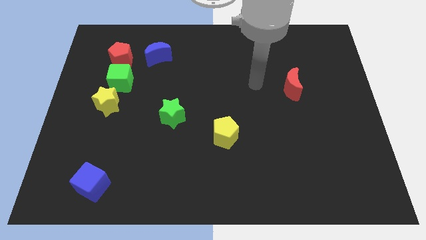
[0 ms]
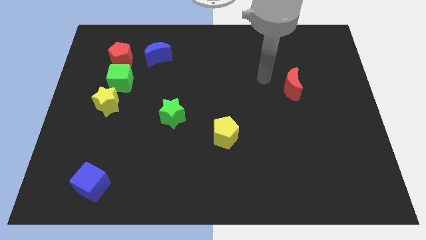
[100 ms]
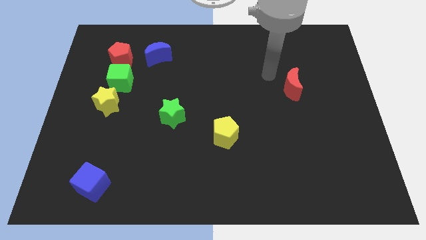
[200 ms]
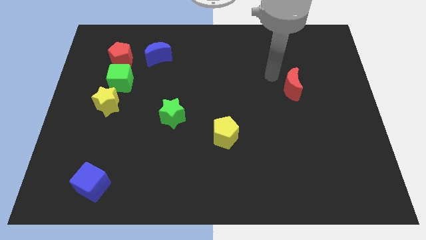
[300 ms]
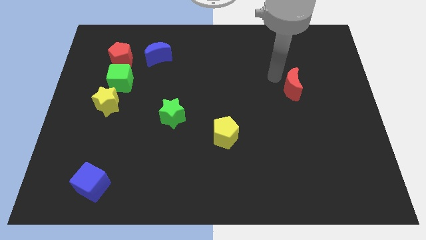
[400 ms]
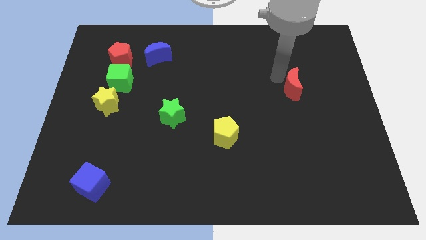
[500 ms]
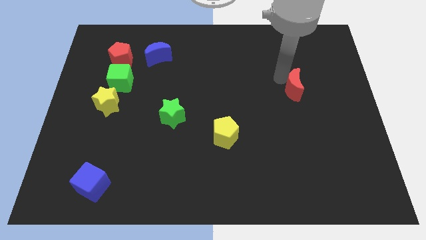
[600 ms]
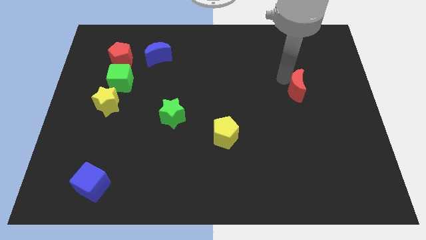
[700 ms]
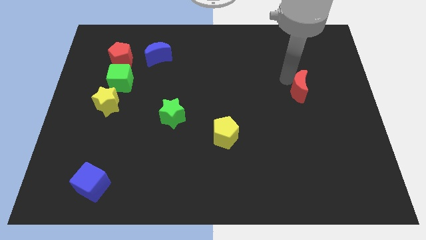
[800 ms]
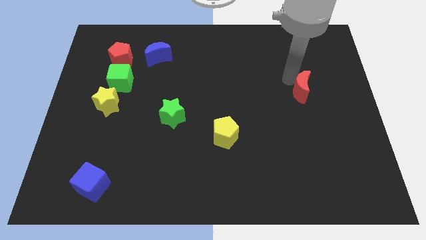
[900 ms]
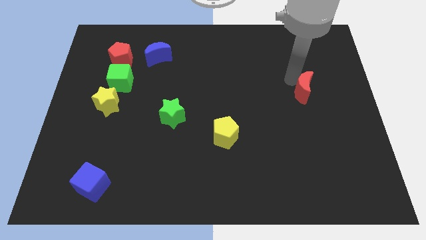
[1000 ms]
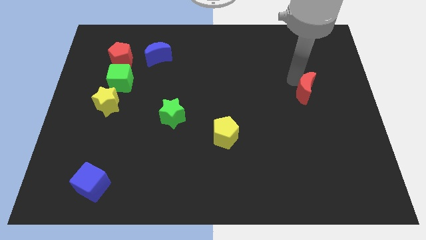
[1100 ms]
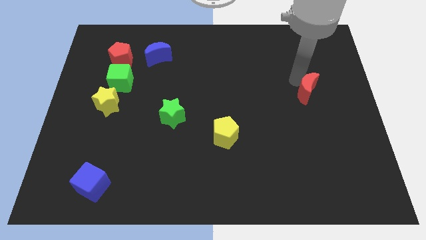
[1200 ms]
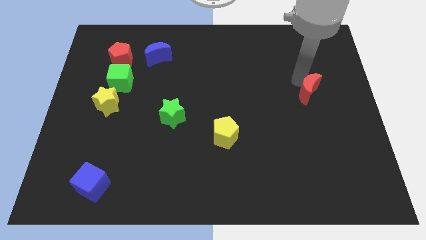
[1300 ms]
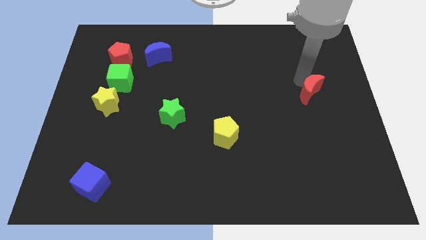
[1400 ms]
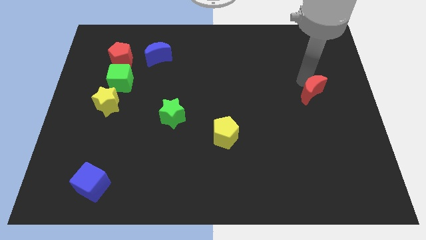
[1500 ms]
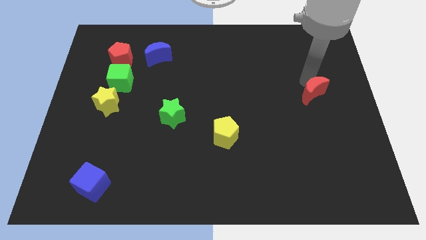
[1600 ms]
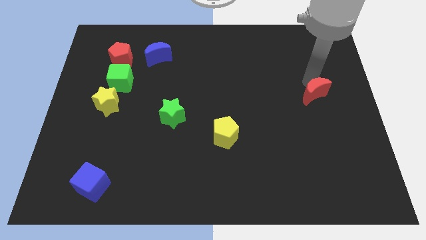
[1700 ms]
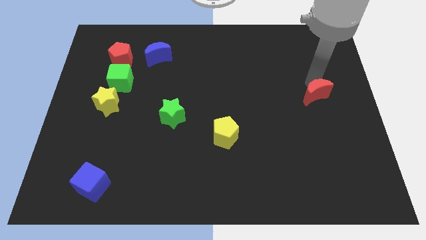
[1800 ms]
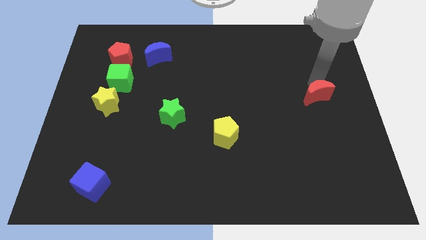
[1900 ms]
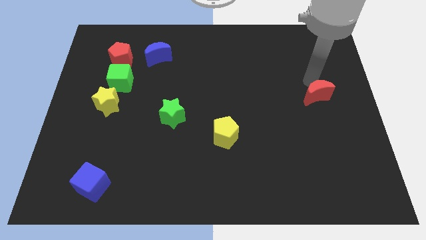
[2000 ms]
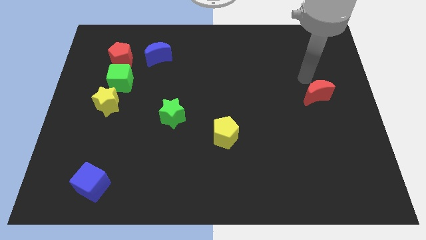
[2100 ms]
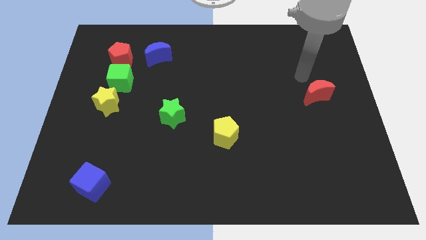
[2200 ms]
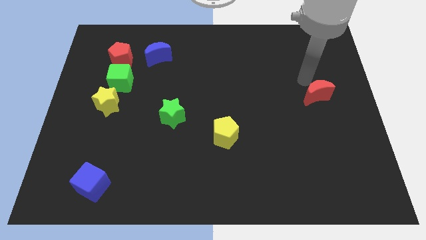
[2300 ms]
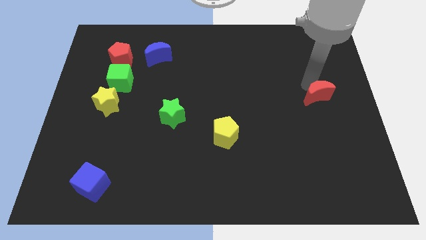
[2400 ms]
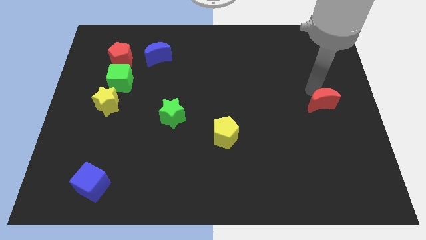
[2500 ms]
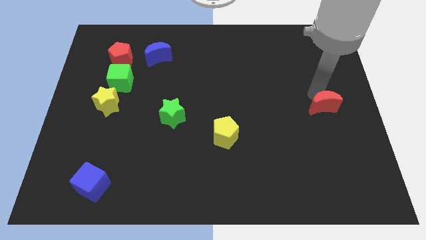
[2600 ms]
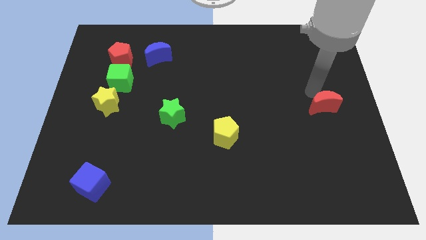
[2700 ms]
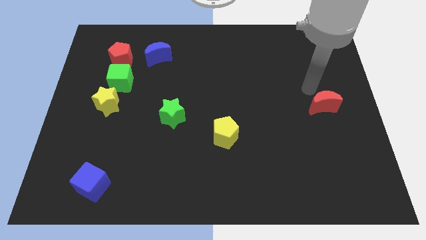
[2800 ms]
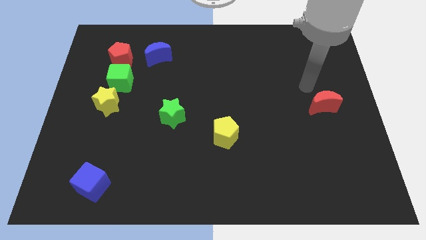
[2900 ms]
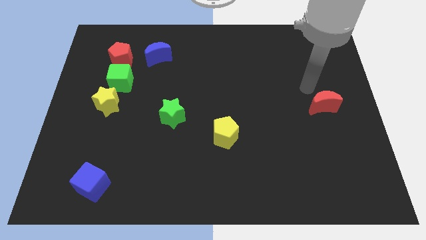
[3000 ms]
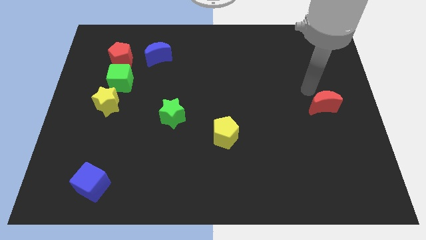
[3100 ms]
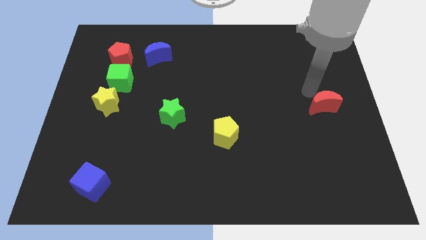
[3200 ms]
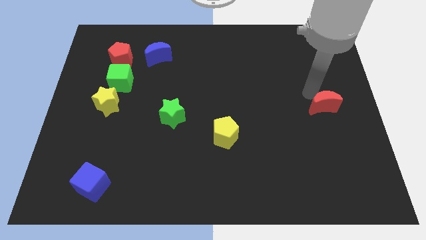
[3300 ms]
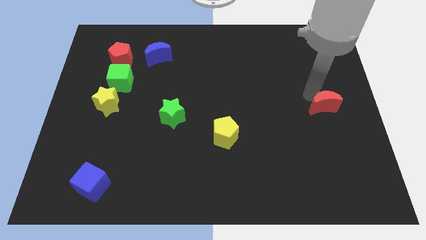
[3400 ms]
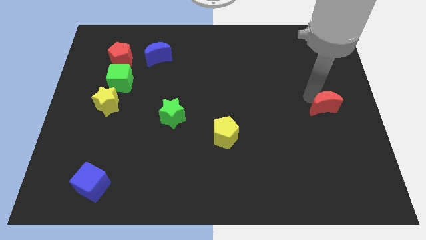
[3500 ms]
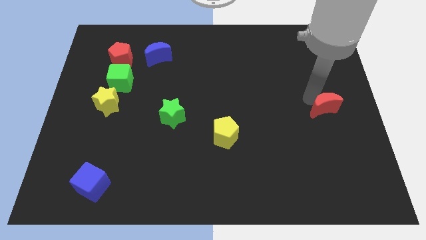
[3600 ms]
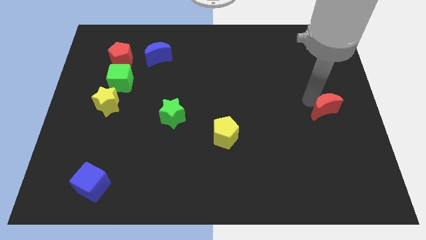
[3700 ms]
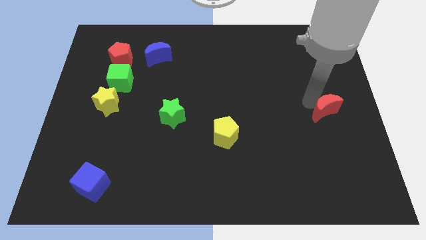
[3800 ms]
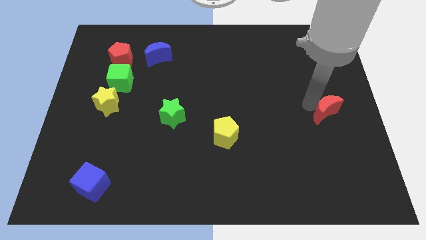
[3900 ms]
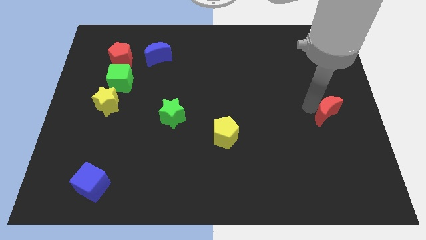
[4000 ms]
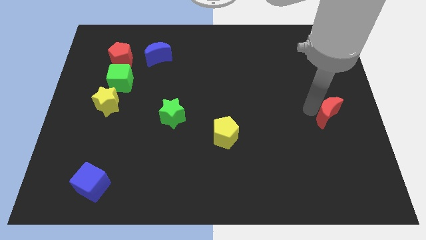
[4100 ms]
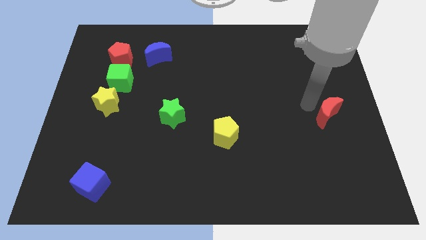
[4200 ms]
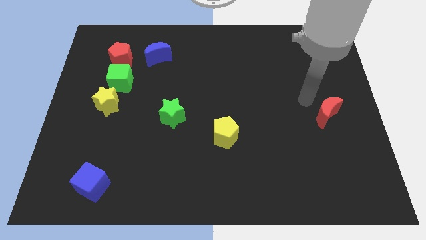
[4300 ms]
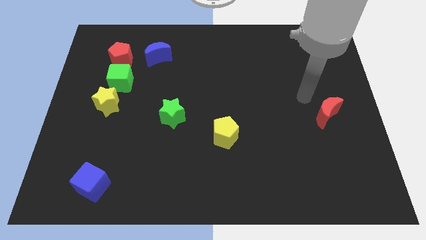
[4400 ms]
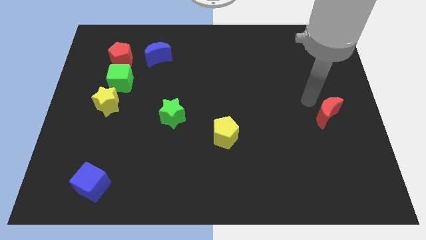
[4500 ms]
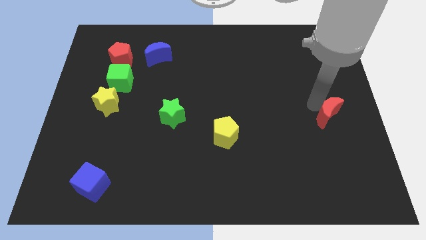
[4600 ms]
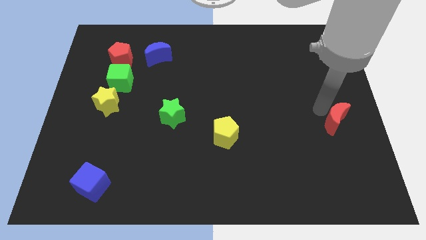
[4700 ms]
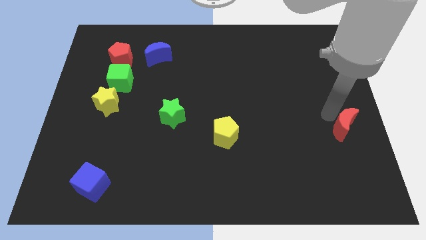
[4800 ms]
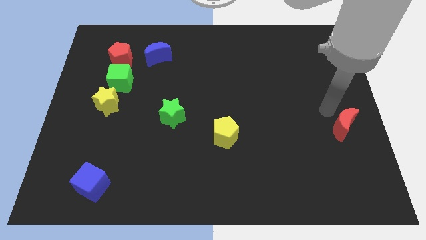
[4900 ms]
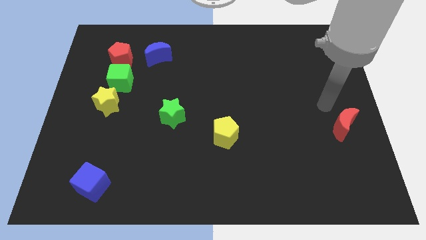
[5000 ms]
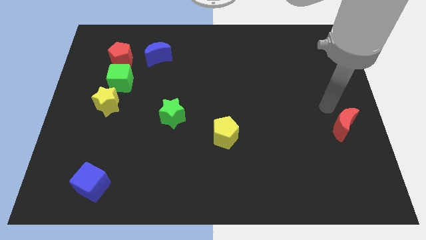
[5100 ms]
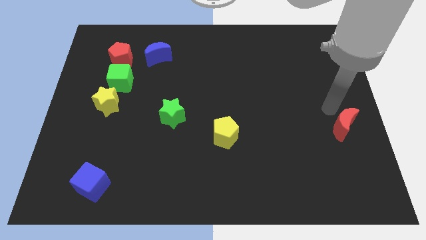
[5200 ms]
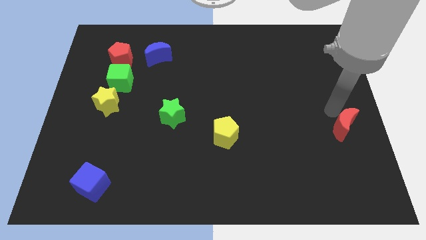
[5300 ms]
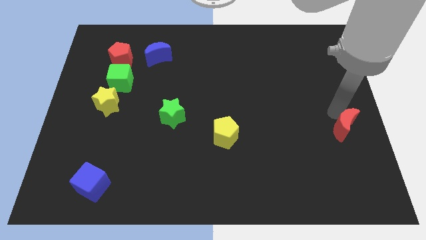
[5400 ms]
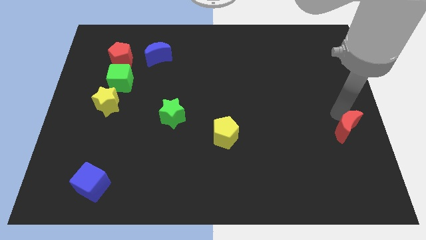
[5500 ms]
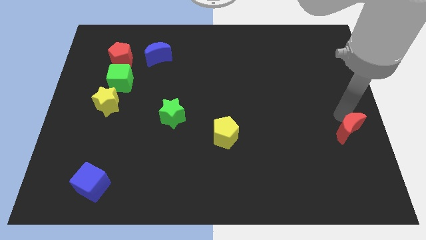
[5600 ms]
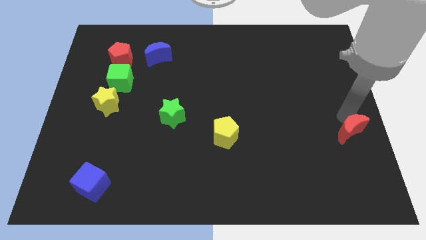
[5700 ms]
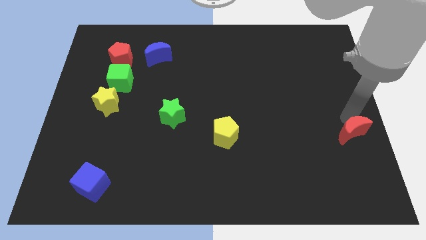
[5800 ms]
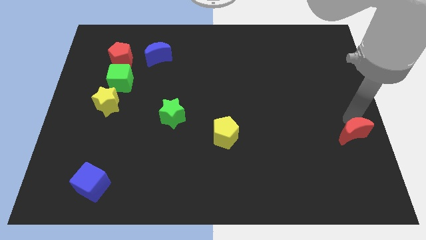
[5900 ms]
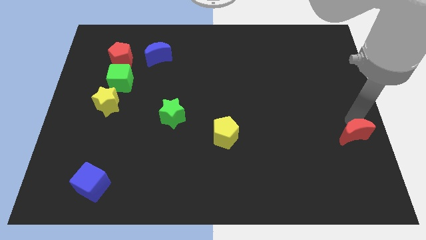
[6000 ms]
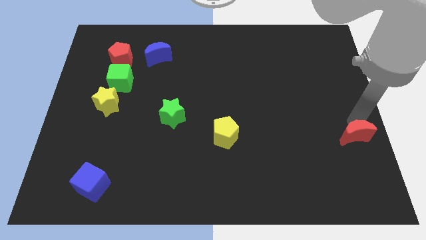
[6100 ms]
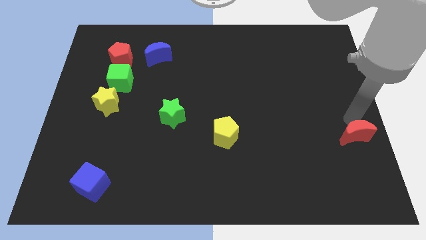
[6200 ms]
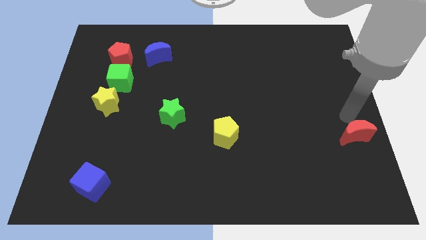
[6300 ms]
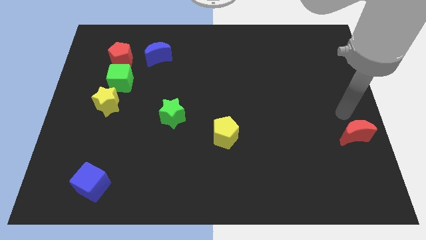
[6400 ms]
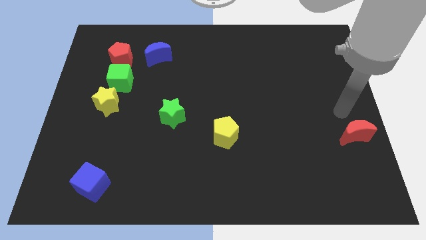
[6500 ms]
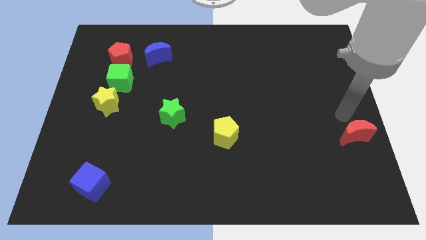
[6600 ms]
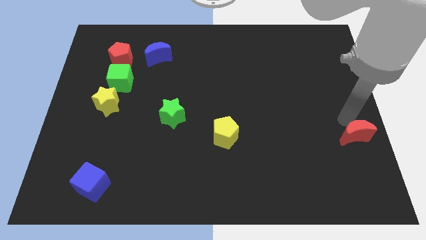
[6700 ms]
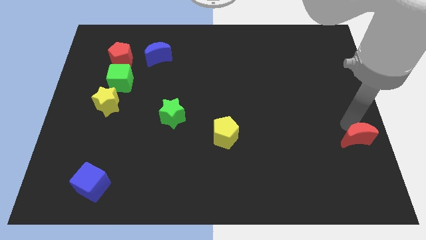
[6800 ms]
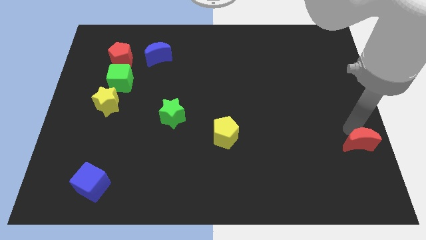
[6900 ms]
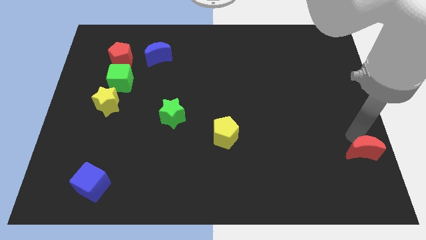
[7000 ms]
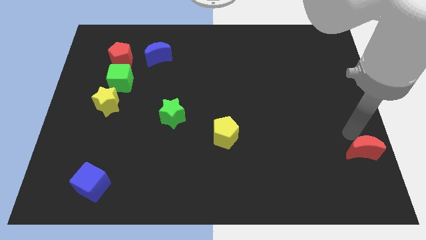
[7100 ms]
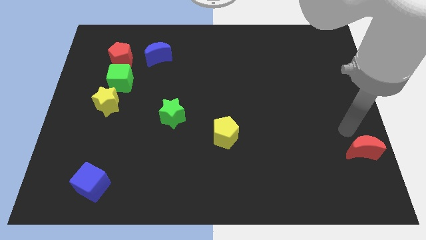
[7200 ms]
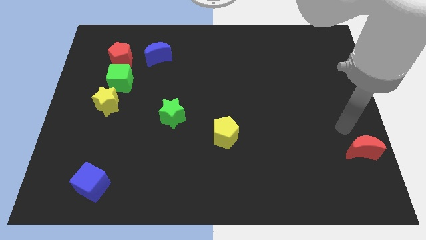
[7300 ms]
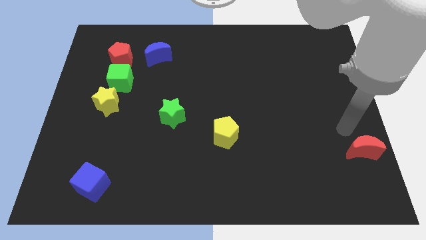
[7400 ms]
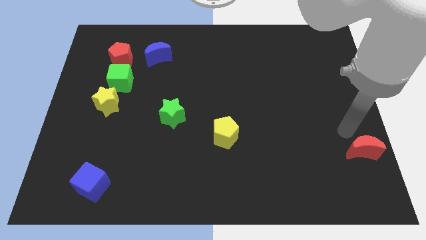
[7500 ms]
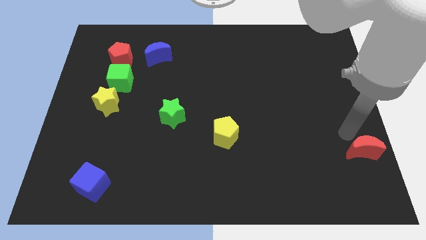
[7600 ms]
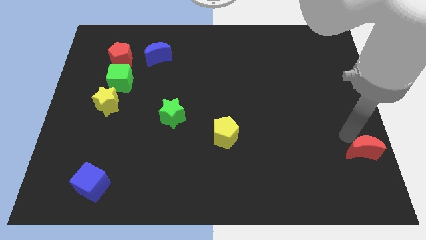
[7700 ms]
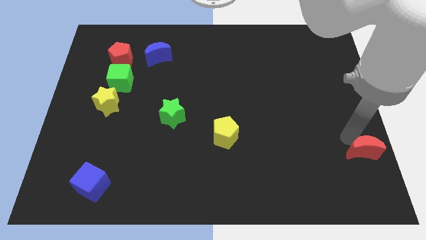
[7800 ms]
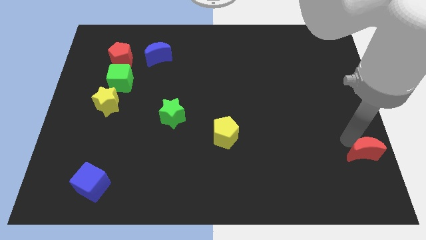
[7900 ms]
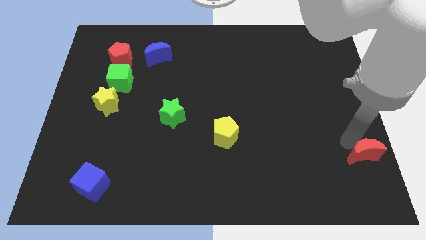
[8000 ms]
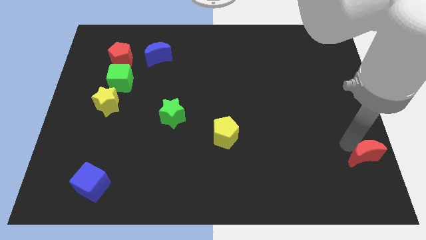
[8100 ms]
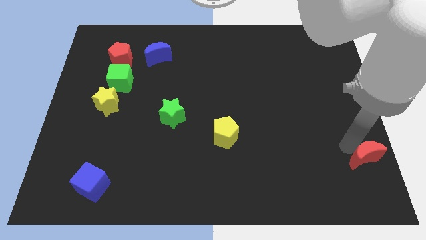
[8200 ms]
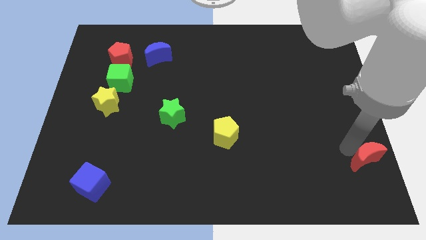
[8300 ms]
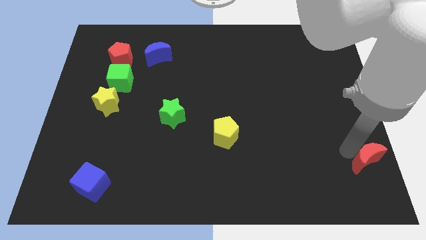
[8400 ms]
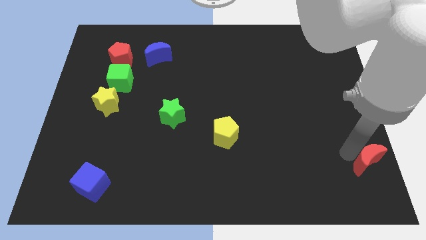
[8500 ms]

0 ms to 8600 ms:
move the red moon to the lower right corner
